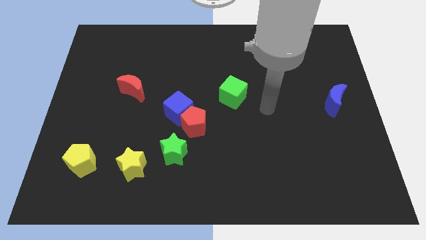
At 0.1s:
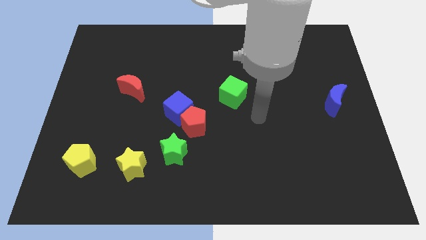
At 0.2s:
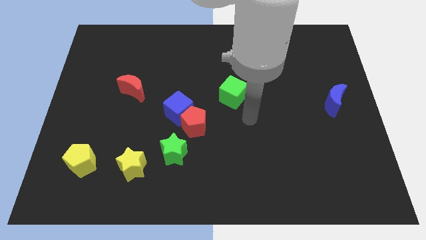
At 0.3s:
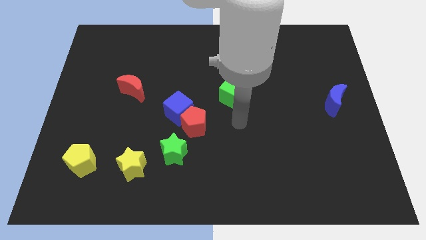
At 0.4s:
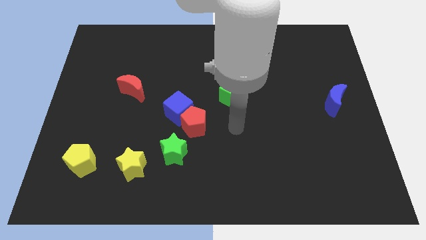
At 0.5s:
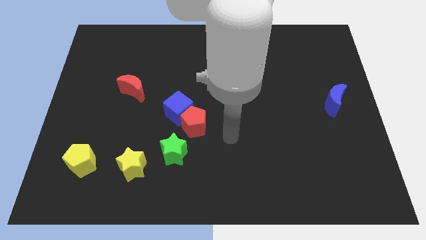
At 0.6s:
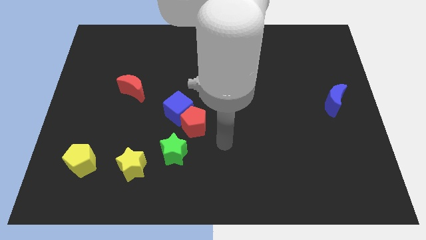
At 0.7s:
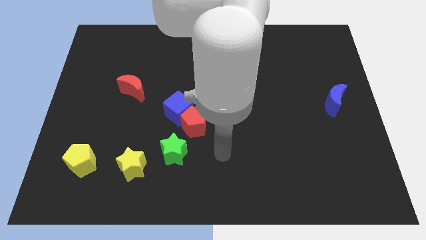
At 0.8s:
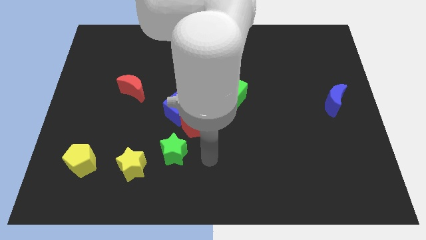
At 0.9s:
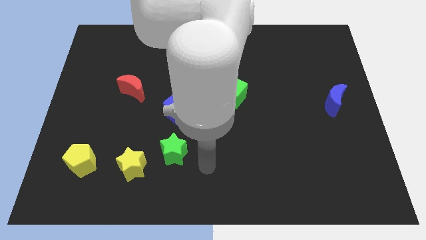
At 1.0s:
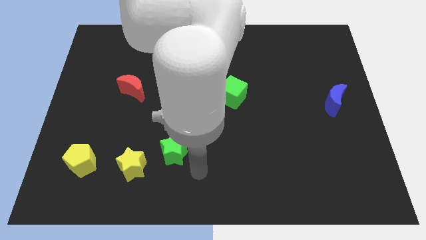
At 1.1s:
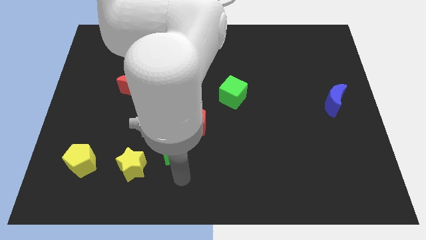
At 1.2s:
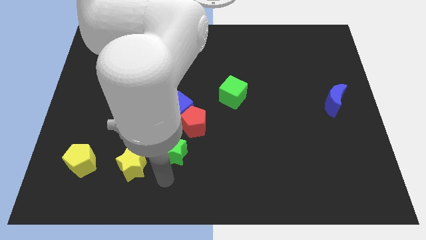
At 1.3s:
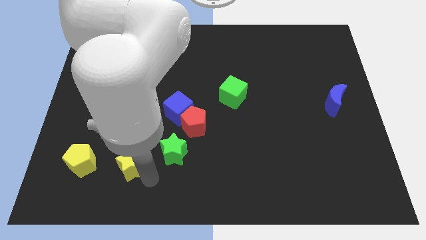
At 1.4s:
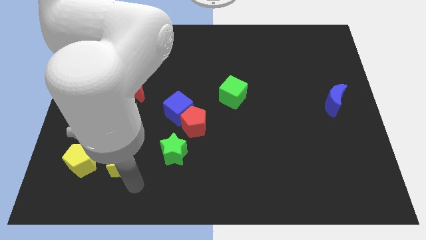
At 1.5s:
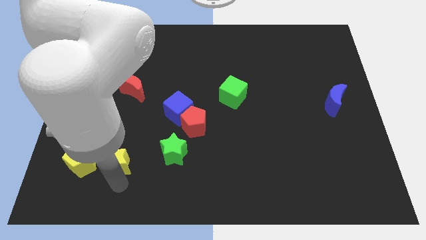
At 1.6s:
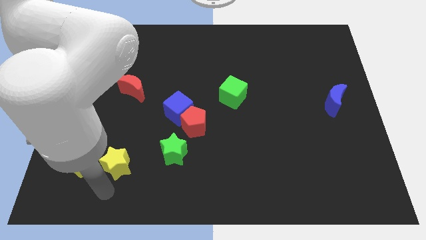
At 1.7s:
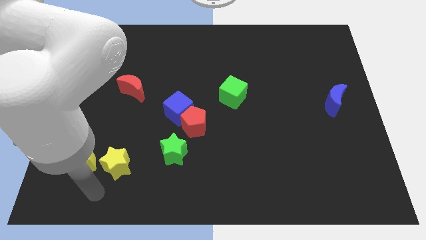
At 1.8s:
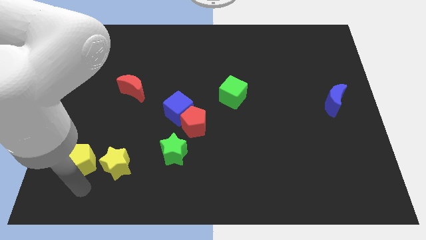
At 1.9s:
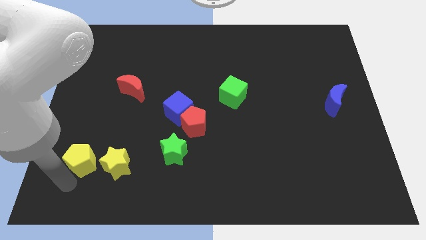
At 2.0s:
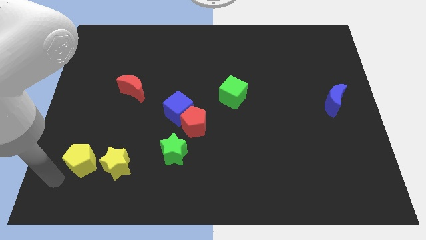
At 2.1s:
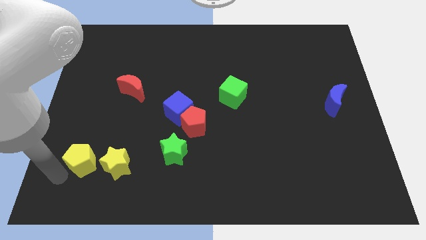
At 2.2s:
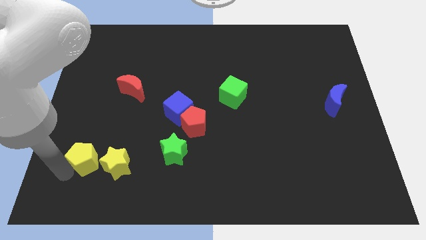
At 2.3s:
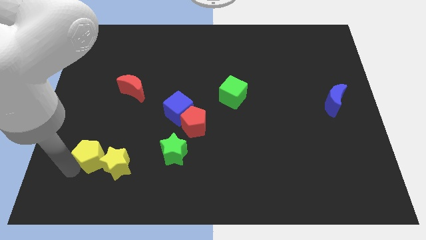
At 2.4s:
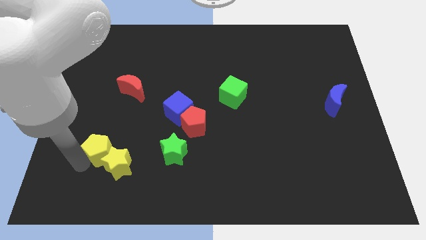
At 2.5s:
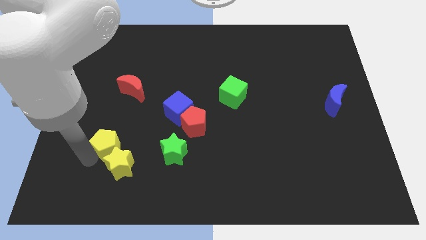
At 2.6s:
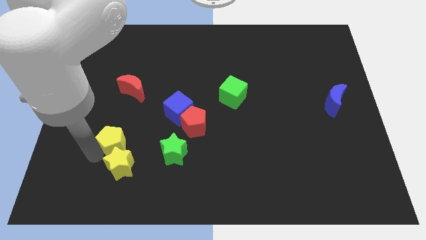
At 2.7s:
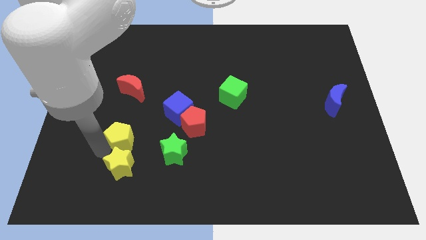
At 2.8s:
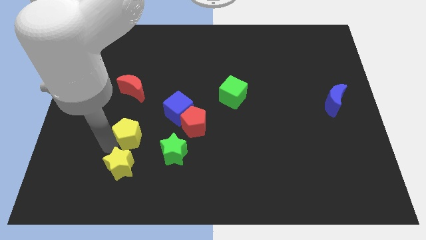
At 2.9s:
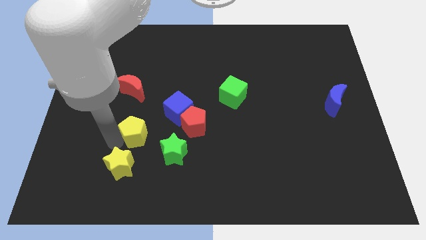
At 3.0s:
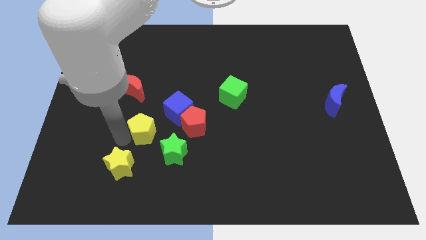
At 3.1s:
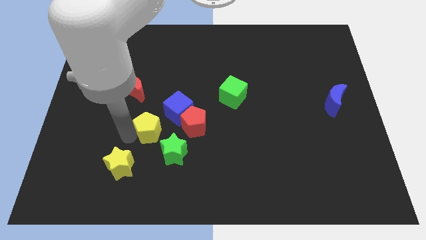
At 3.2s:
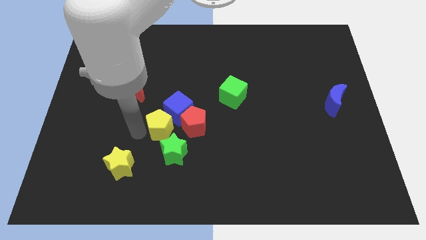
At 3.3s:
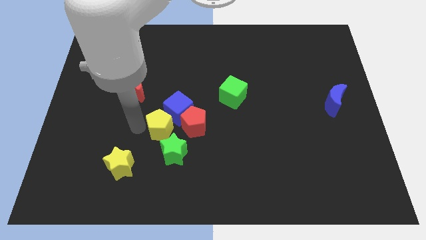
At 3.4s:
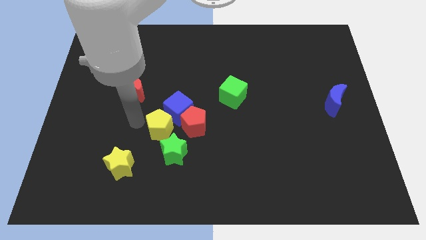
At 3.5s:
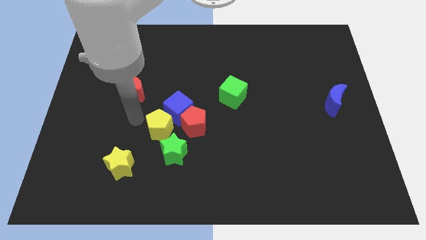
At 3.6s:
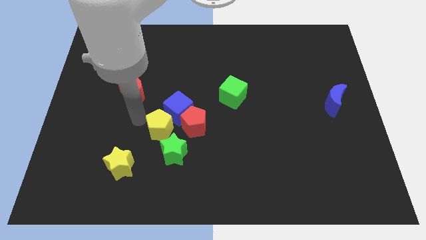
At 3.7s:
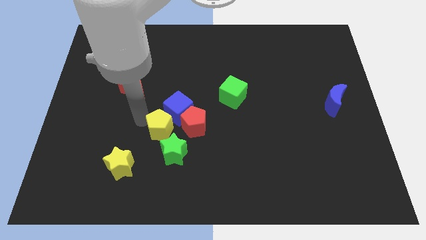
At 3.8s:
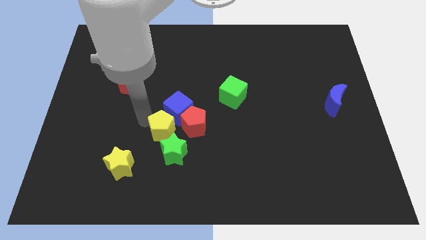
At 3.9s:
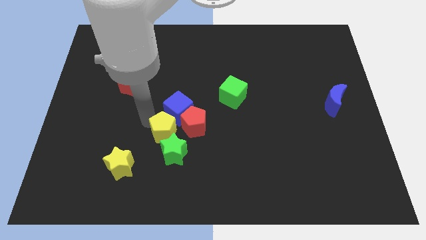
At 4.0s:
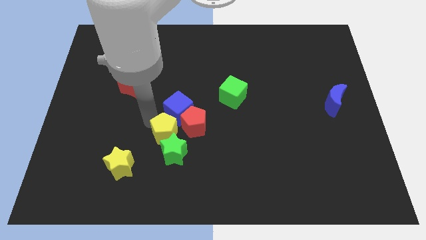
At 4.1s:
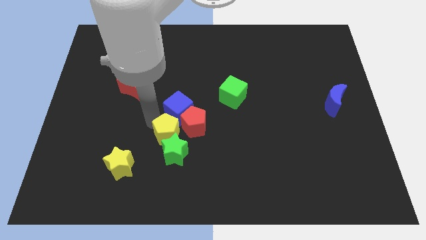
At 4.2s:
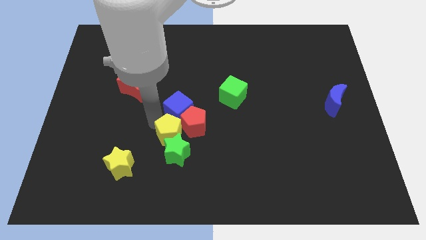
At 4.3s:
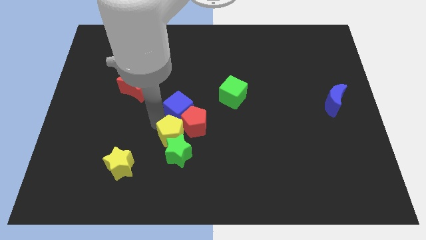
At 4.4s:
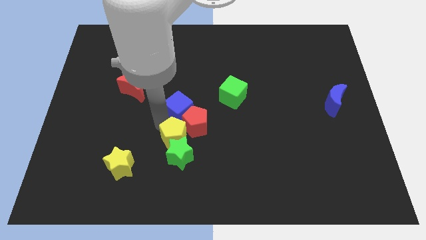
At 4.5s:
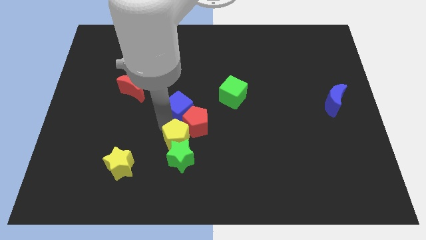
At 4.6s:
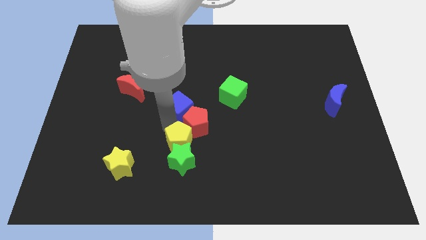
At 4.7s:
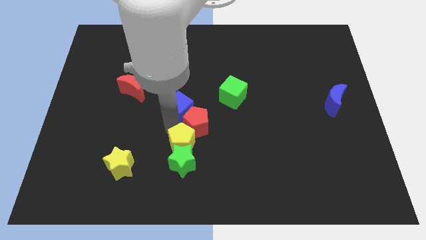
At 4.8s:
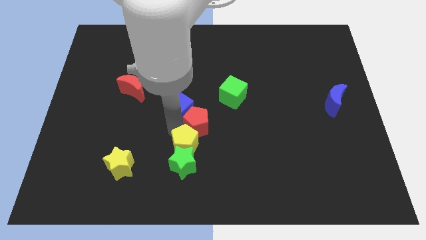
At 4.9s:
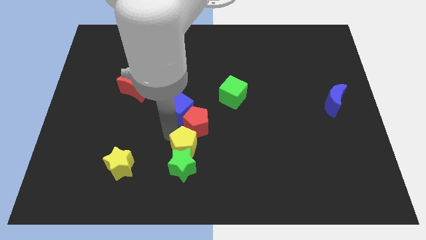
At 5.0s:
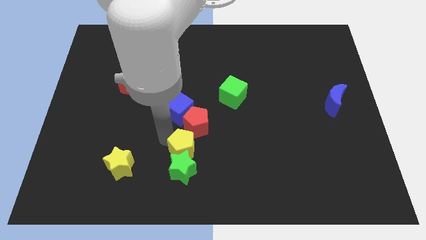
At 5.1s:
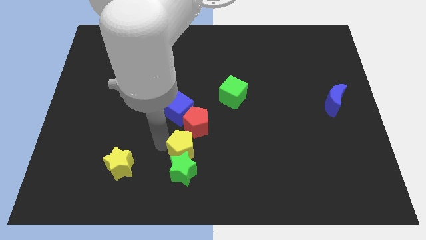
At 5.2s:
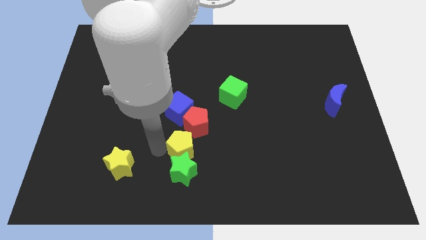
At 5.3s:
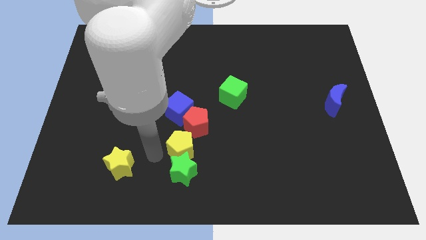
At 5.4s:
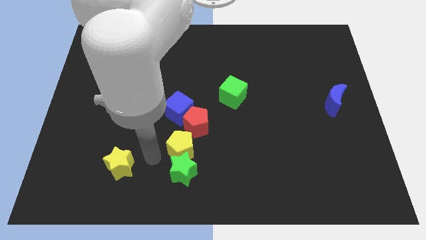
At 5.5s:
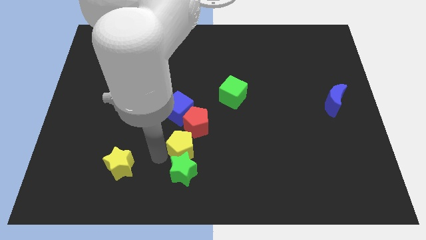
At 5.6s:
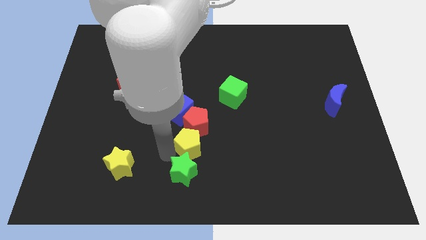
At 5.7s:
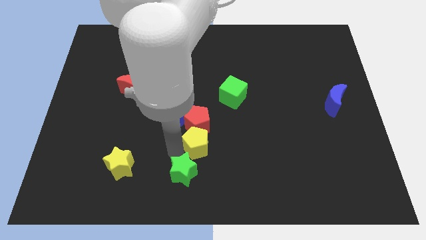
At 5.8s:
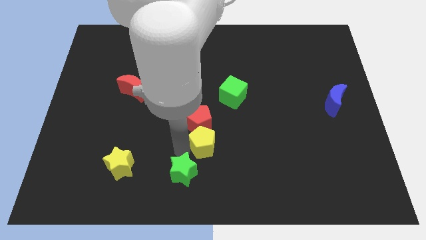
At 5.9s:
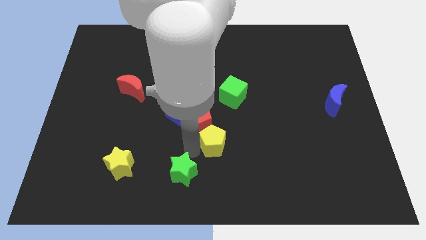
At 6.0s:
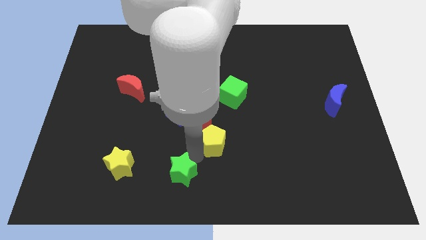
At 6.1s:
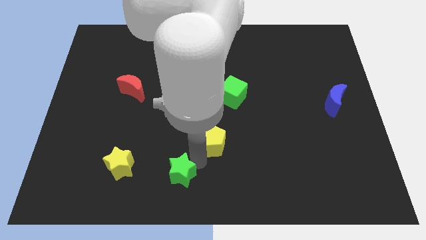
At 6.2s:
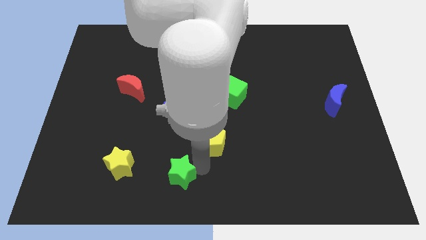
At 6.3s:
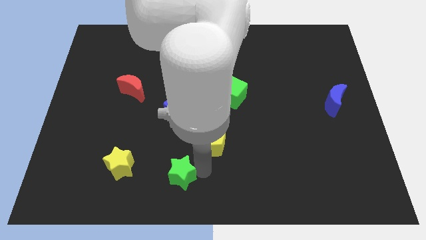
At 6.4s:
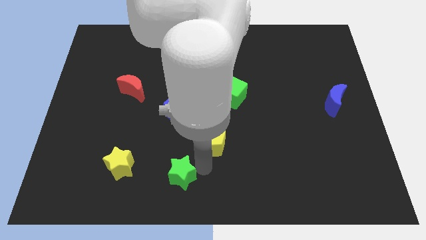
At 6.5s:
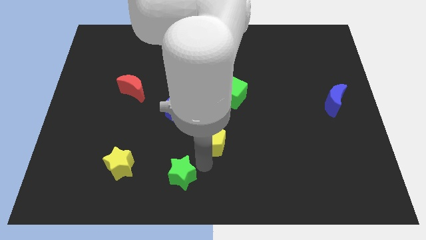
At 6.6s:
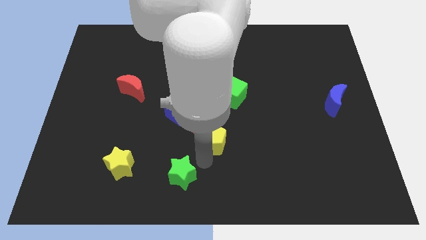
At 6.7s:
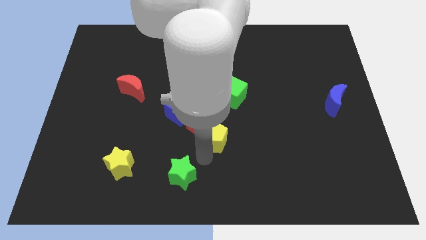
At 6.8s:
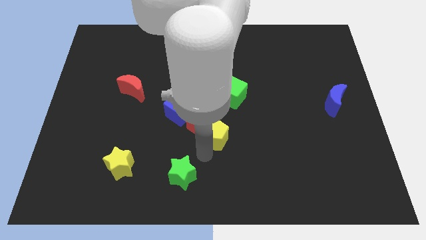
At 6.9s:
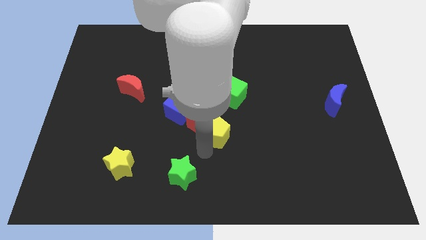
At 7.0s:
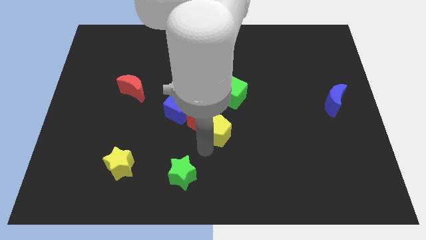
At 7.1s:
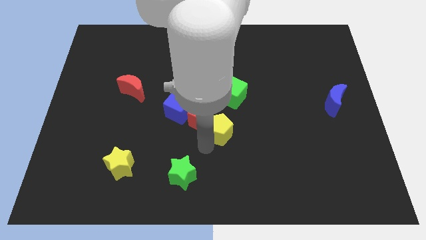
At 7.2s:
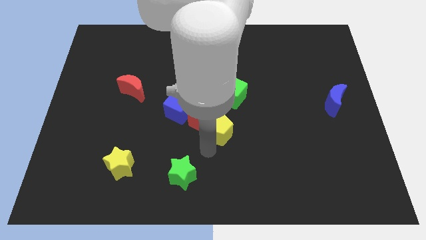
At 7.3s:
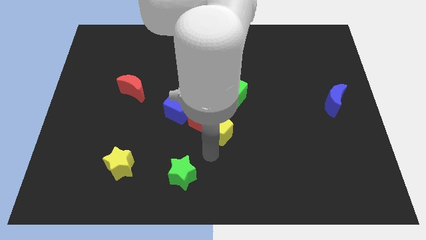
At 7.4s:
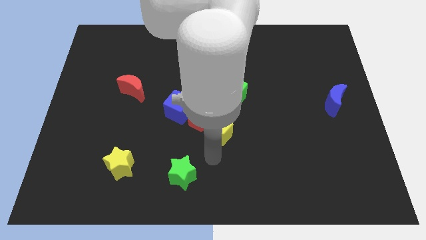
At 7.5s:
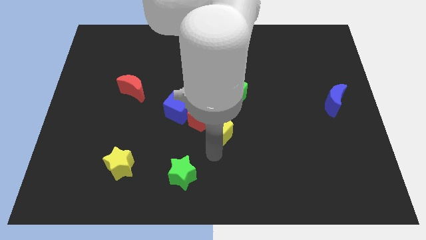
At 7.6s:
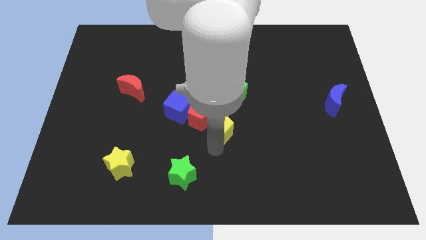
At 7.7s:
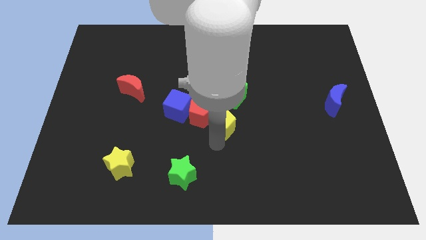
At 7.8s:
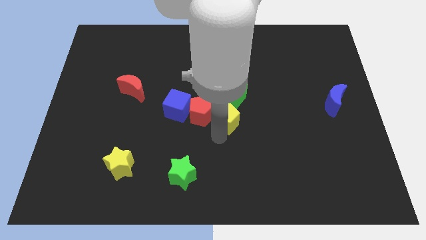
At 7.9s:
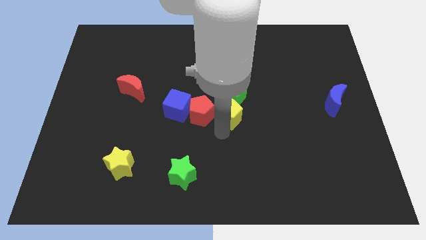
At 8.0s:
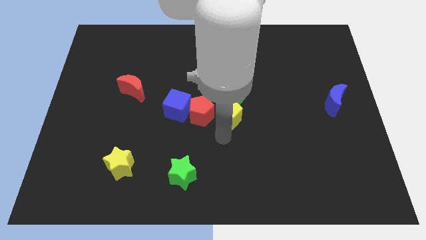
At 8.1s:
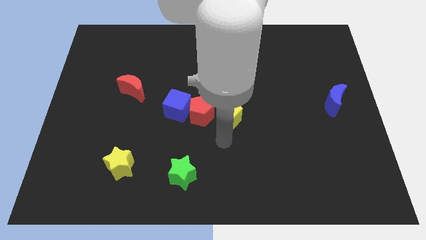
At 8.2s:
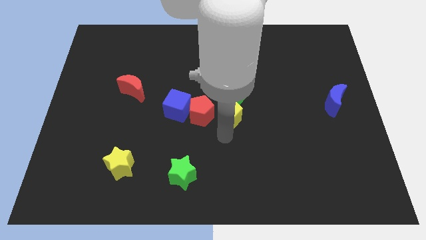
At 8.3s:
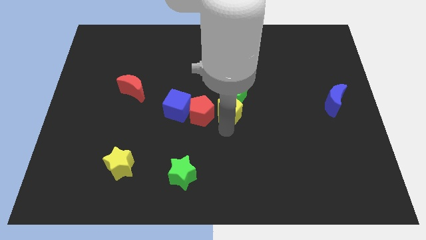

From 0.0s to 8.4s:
push the yellow pentagon towards the green cube
